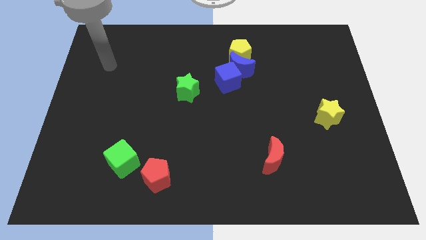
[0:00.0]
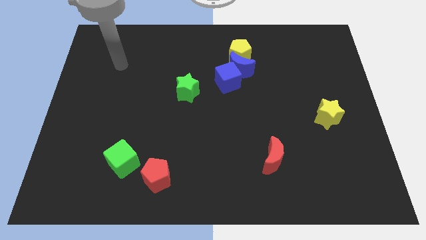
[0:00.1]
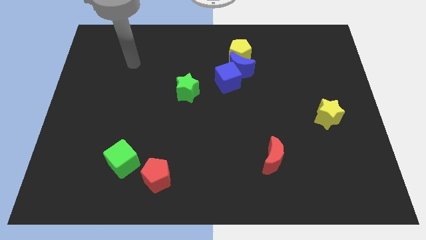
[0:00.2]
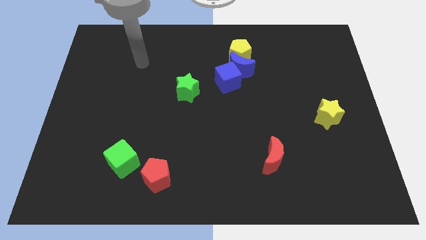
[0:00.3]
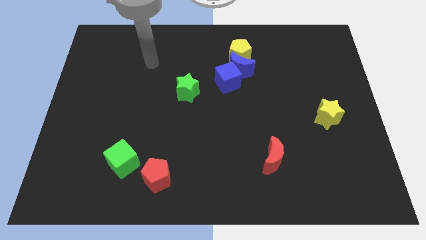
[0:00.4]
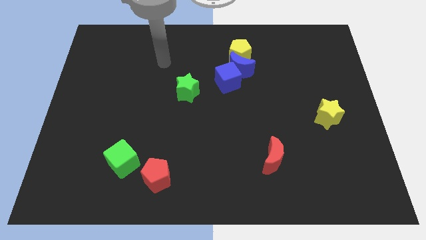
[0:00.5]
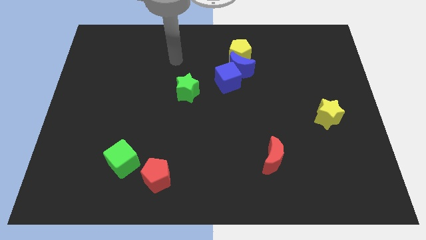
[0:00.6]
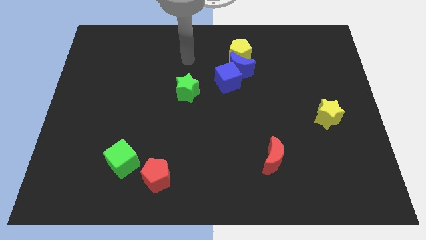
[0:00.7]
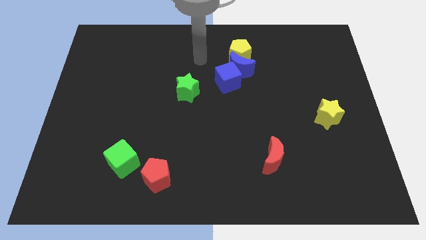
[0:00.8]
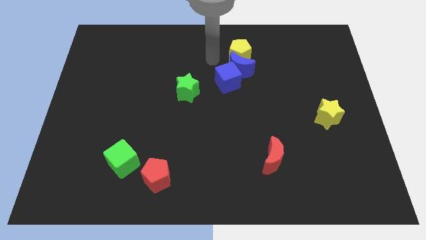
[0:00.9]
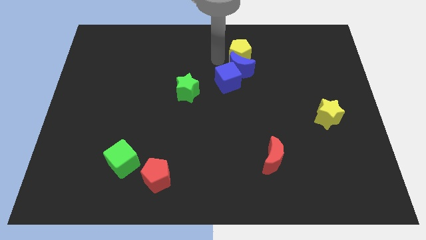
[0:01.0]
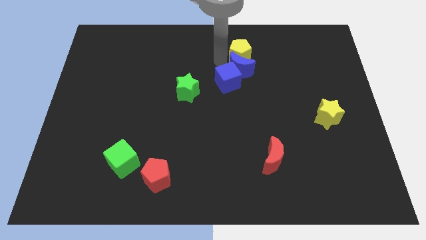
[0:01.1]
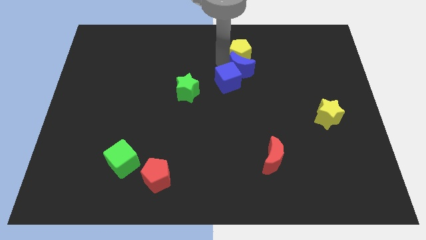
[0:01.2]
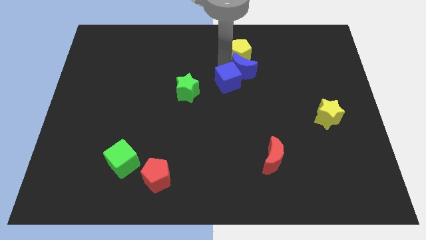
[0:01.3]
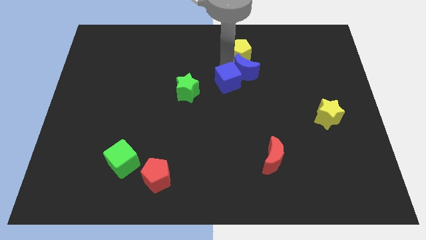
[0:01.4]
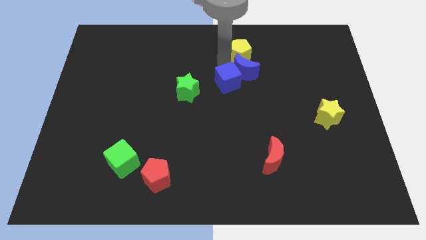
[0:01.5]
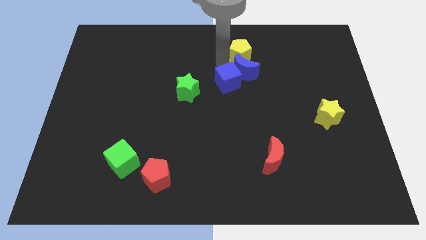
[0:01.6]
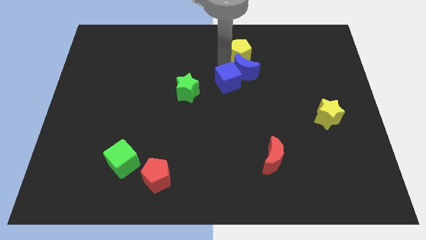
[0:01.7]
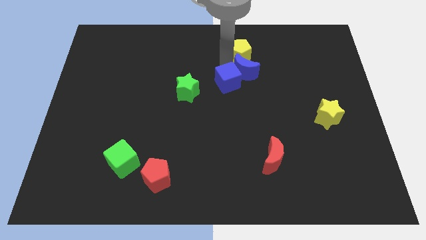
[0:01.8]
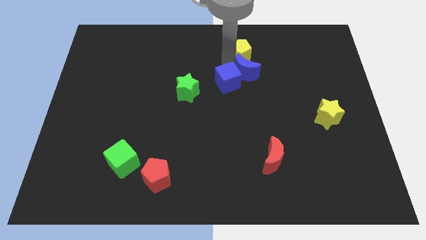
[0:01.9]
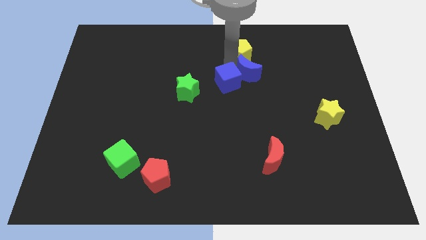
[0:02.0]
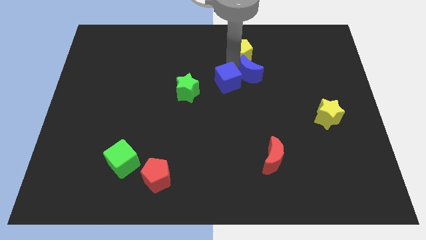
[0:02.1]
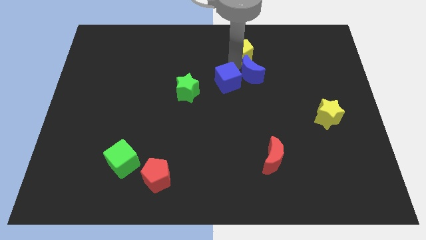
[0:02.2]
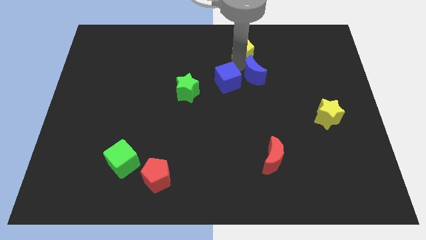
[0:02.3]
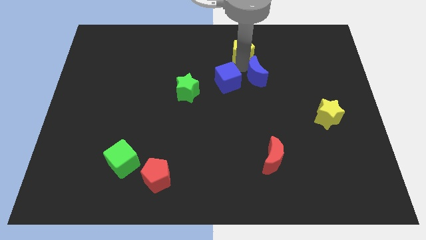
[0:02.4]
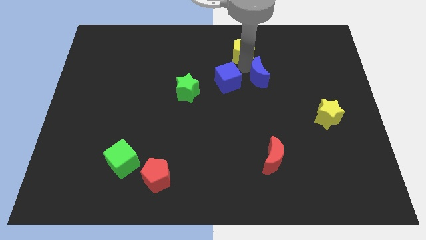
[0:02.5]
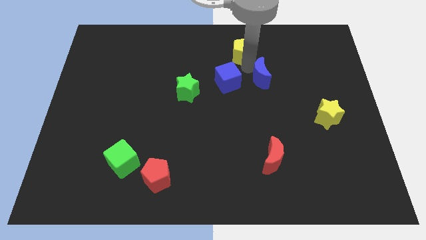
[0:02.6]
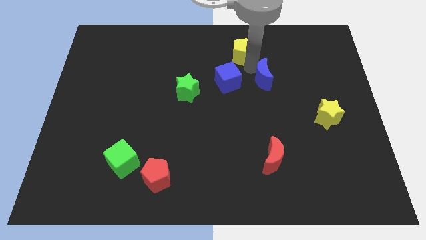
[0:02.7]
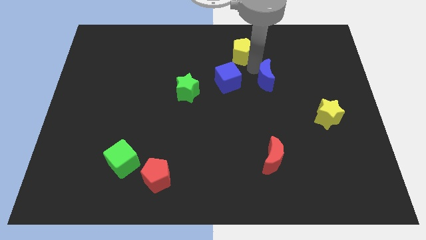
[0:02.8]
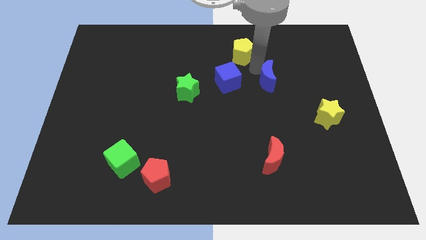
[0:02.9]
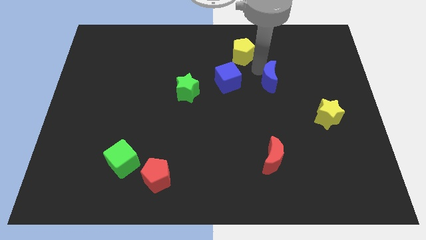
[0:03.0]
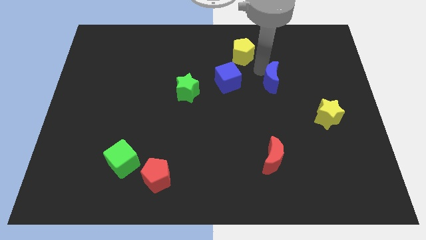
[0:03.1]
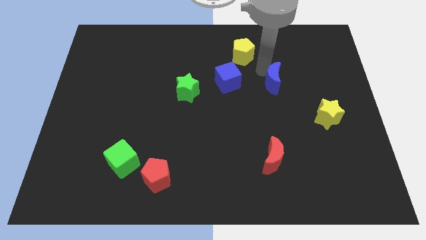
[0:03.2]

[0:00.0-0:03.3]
move the blue moon away from the blue cube and yellow pentagon

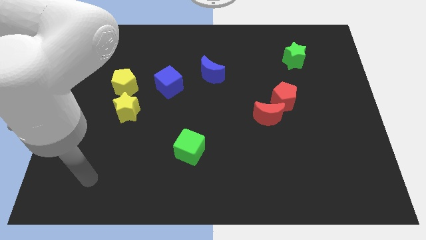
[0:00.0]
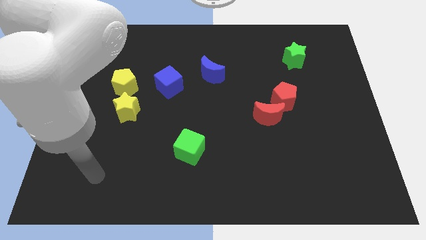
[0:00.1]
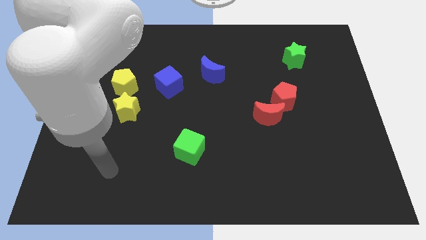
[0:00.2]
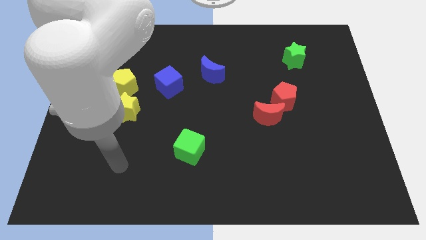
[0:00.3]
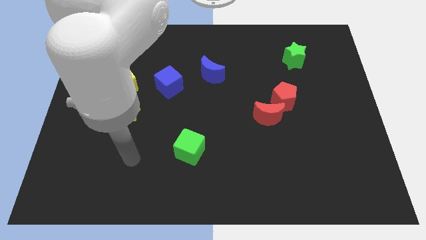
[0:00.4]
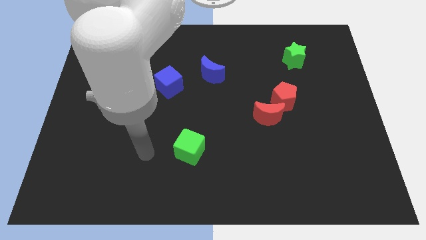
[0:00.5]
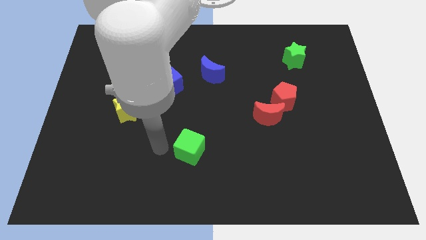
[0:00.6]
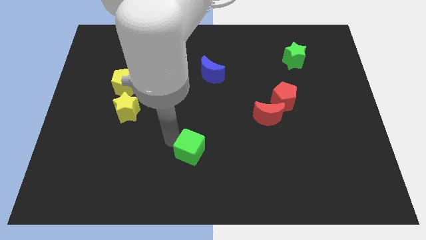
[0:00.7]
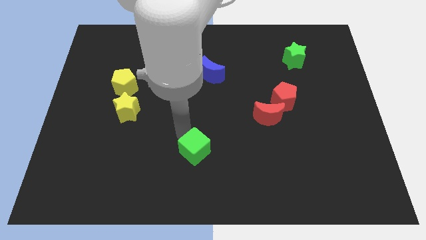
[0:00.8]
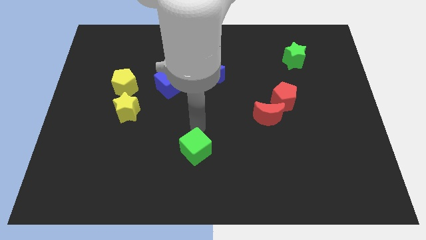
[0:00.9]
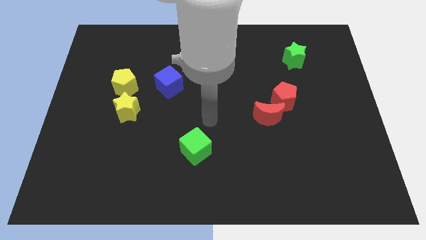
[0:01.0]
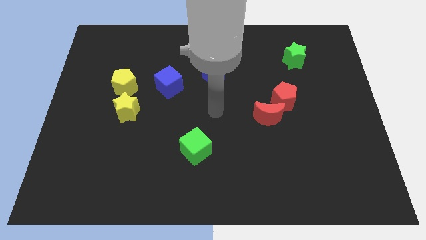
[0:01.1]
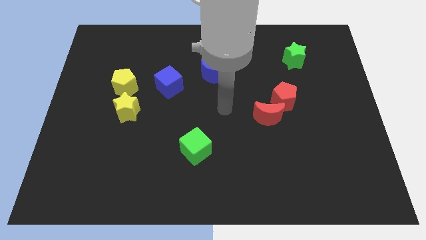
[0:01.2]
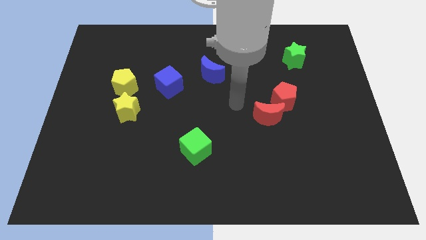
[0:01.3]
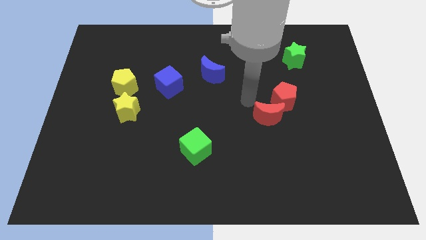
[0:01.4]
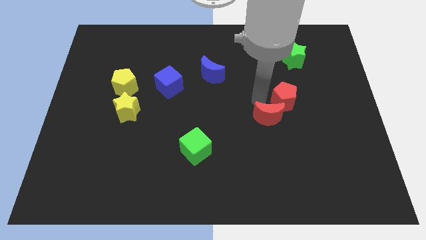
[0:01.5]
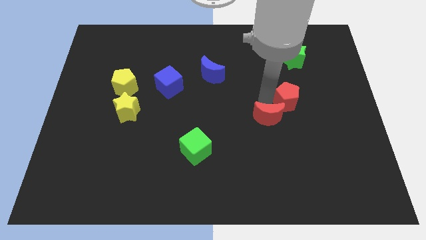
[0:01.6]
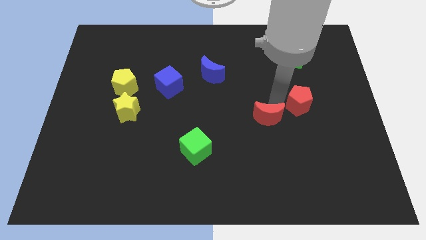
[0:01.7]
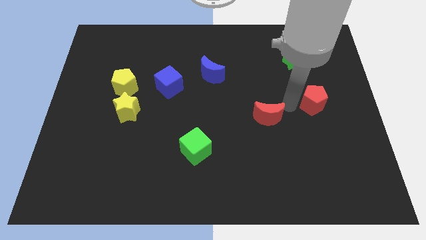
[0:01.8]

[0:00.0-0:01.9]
move the red moon away from the red pentagon

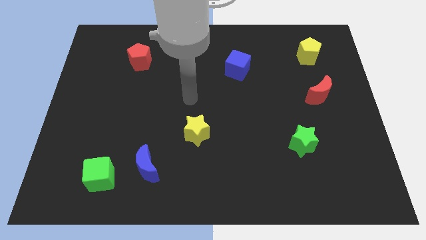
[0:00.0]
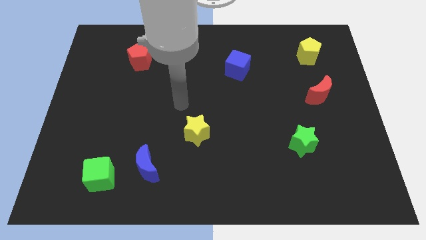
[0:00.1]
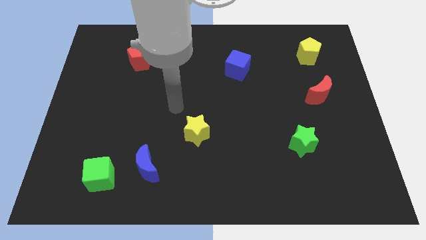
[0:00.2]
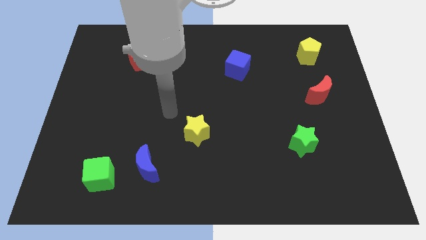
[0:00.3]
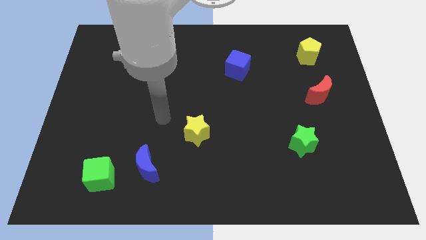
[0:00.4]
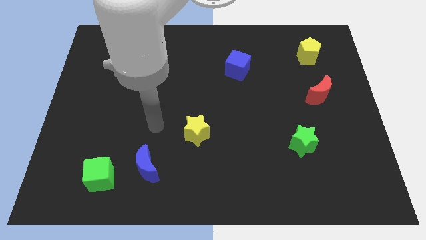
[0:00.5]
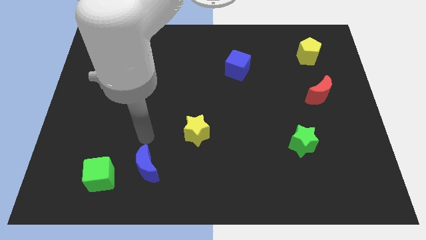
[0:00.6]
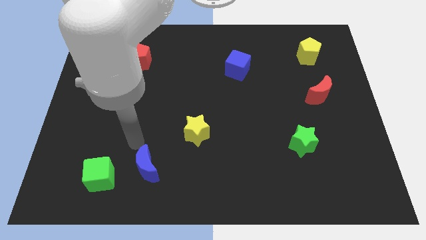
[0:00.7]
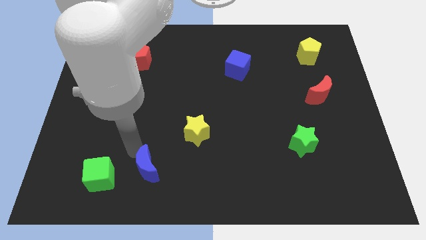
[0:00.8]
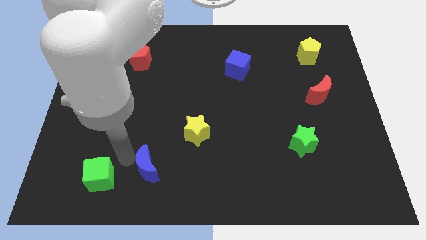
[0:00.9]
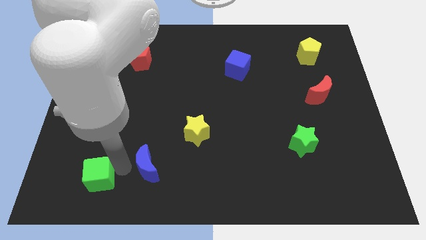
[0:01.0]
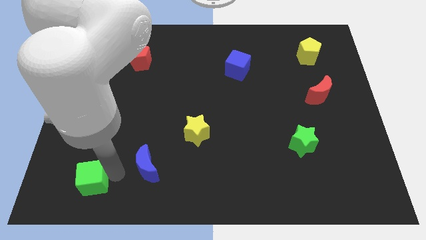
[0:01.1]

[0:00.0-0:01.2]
move the blue moon away from the green cube

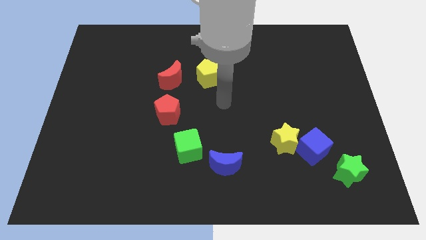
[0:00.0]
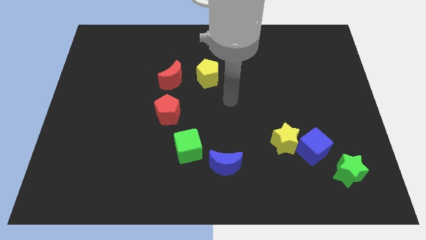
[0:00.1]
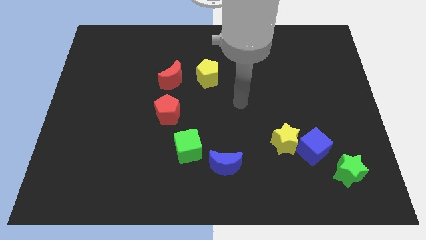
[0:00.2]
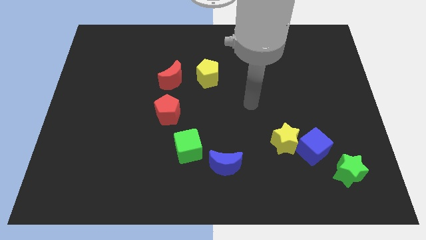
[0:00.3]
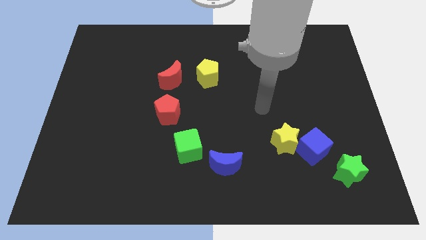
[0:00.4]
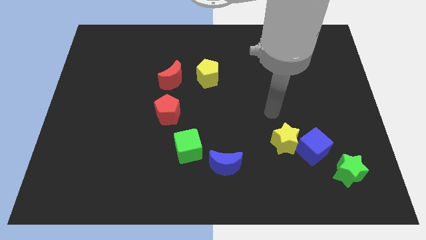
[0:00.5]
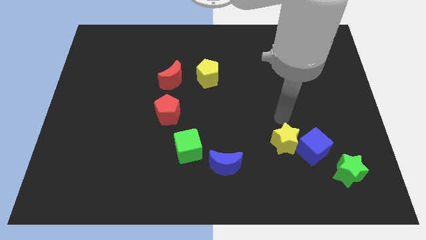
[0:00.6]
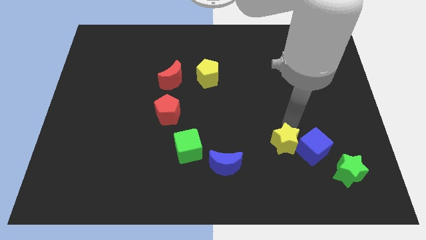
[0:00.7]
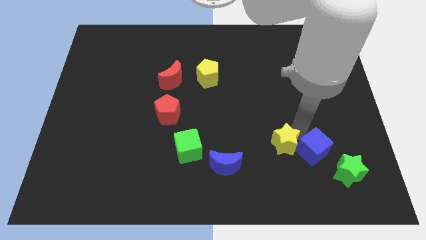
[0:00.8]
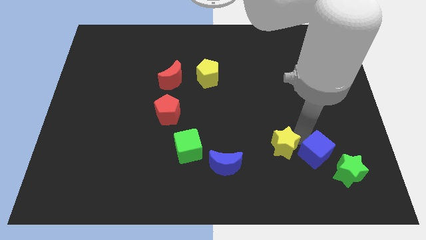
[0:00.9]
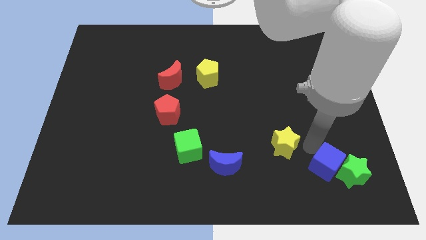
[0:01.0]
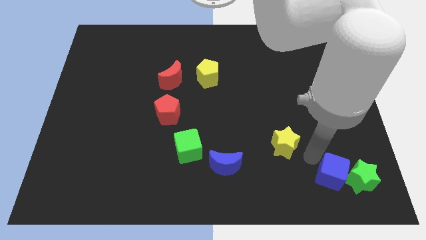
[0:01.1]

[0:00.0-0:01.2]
pull the yellow star apart from the blue cube

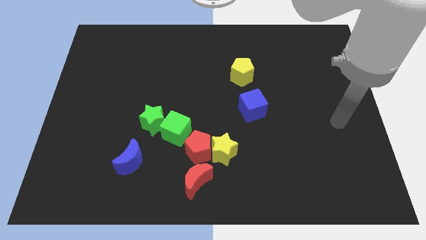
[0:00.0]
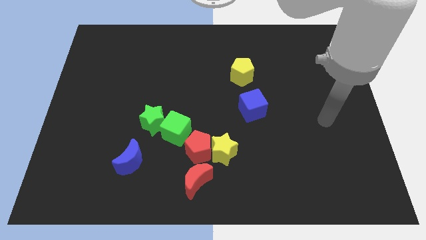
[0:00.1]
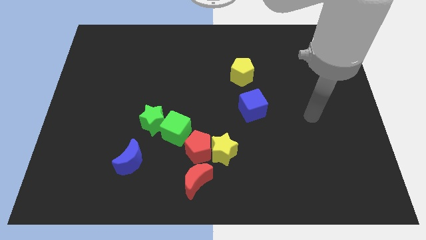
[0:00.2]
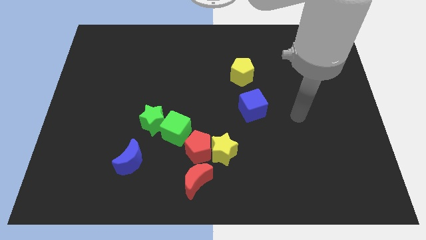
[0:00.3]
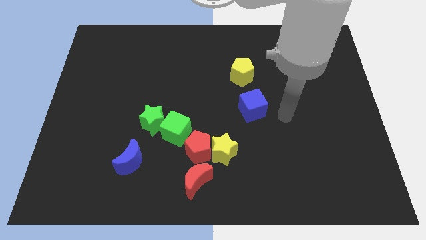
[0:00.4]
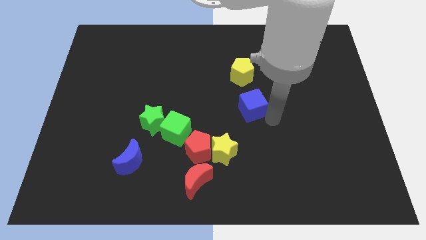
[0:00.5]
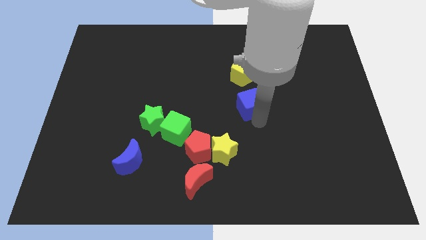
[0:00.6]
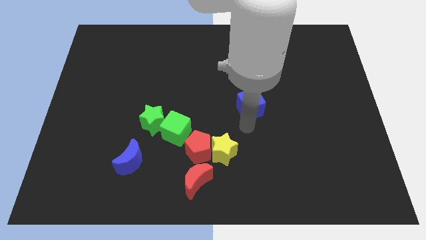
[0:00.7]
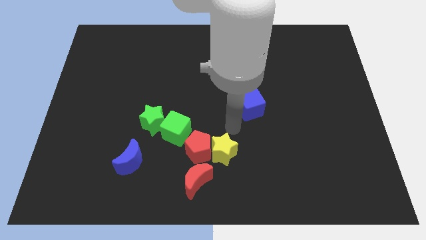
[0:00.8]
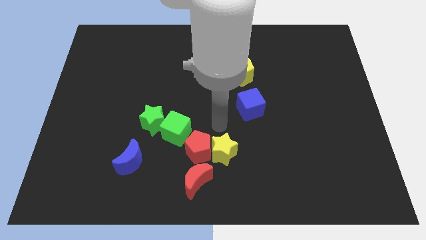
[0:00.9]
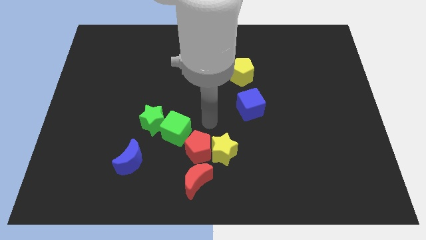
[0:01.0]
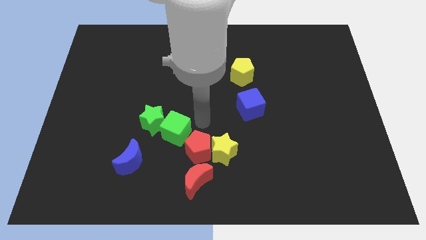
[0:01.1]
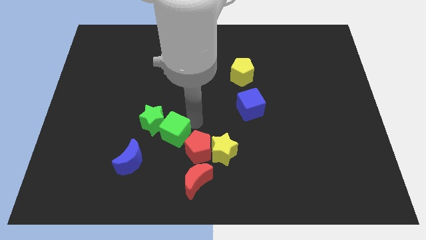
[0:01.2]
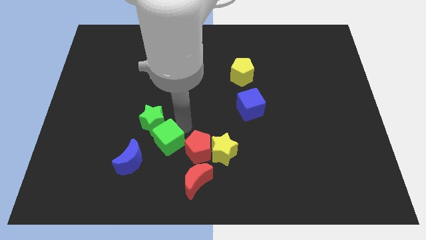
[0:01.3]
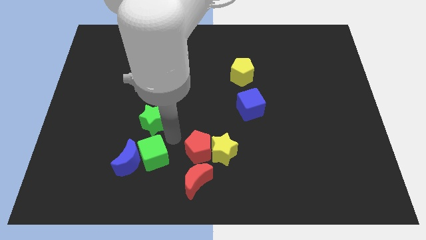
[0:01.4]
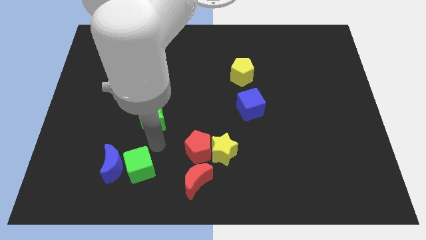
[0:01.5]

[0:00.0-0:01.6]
pull the green star apart from the green cube
